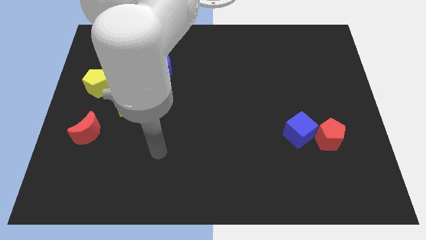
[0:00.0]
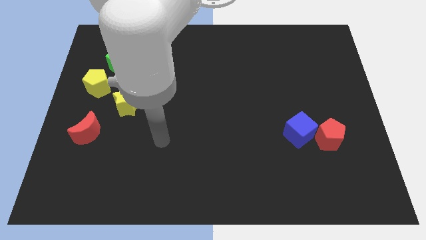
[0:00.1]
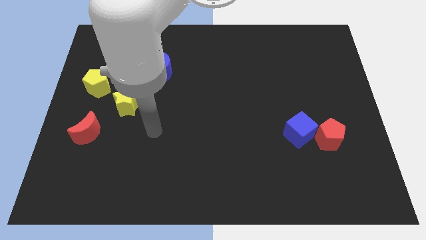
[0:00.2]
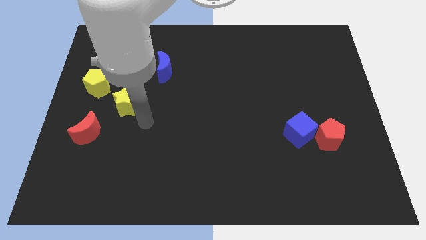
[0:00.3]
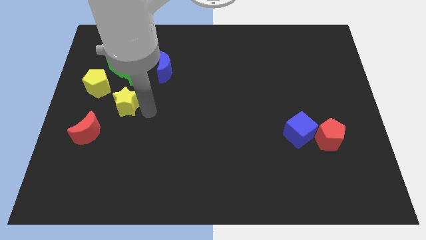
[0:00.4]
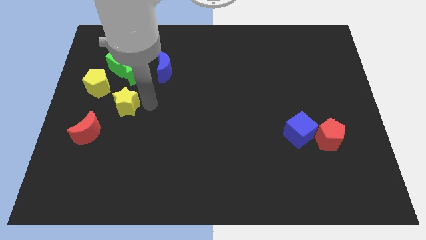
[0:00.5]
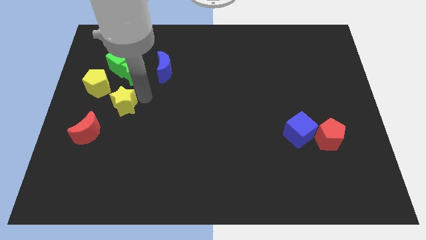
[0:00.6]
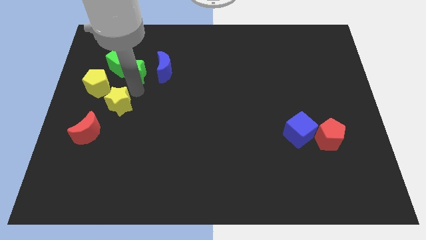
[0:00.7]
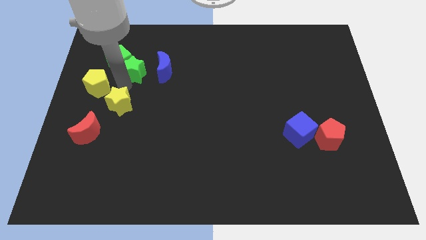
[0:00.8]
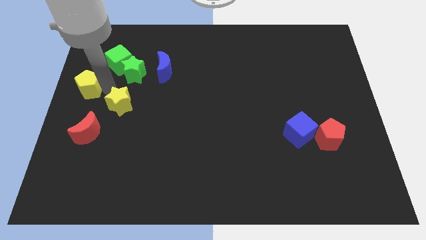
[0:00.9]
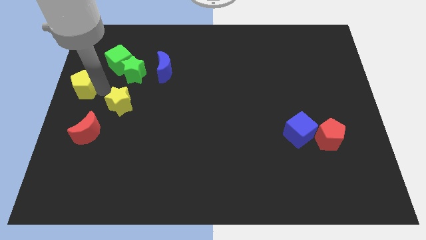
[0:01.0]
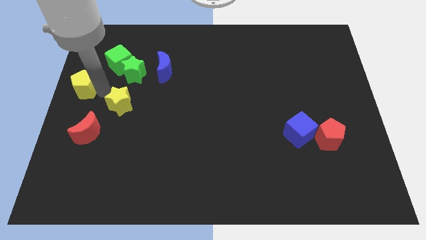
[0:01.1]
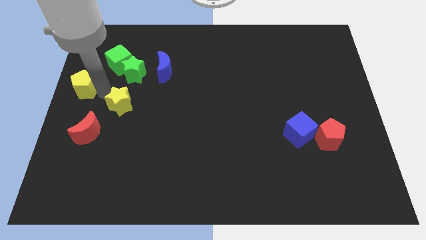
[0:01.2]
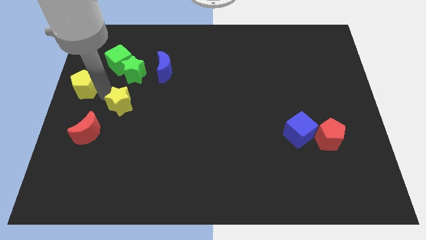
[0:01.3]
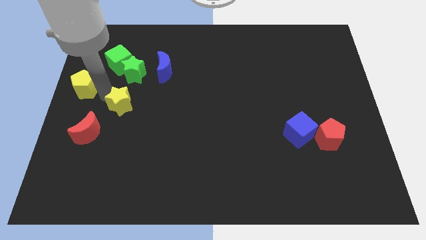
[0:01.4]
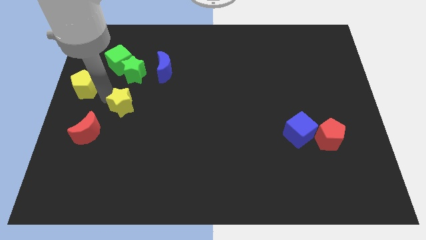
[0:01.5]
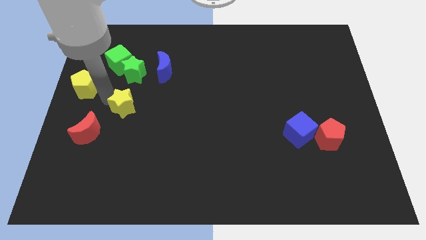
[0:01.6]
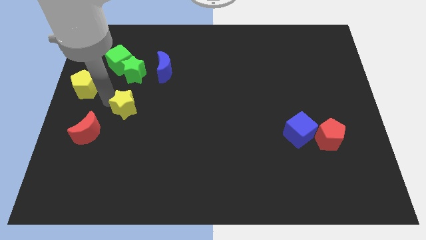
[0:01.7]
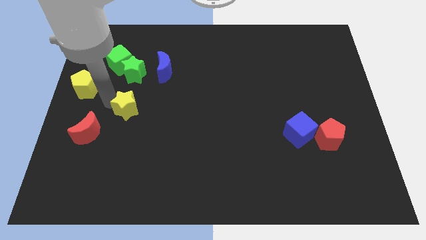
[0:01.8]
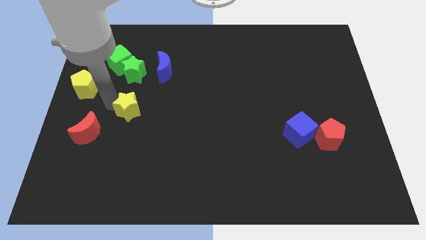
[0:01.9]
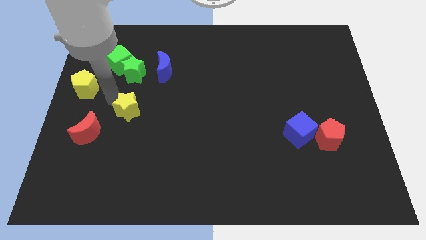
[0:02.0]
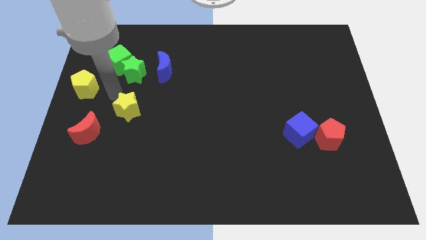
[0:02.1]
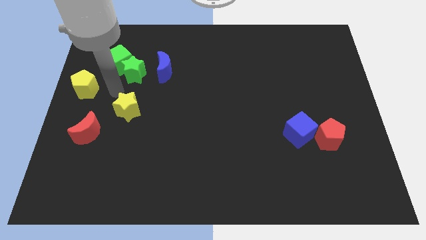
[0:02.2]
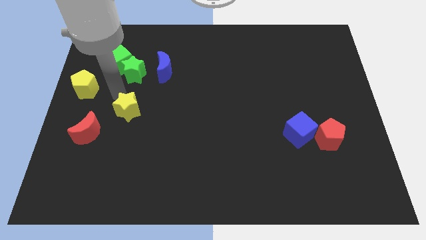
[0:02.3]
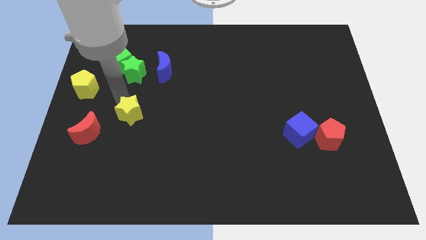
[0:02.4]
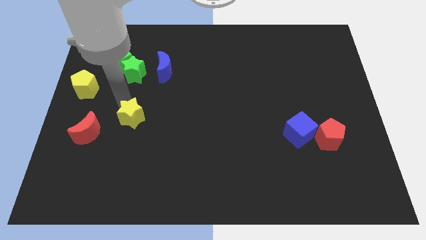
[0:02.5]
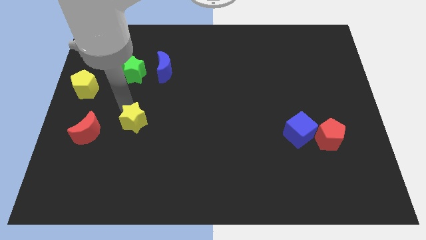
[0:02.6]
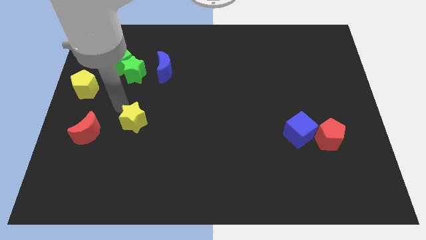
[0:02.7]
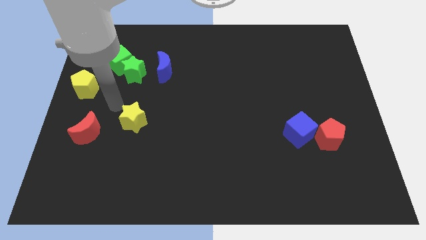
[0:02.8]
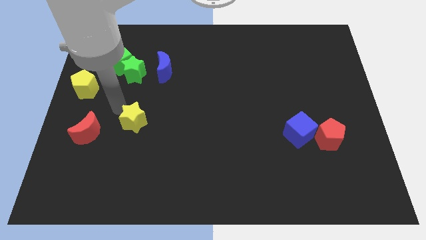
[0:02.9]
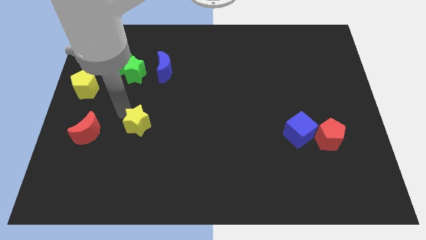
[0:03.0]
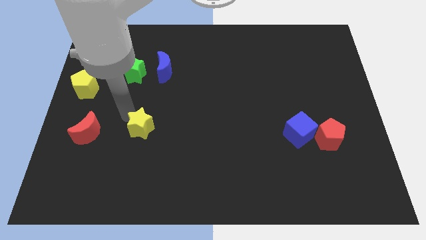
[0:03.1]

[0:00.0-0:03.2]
move the yellow star a little bit diagonally downwards and to the right

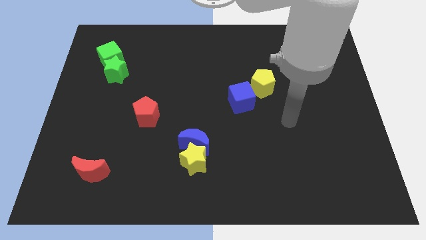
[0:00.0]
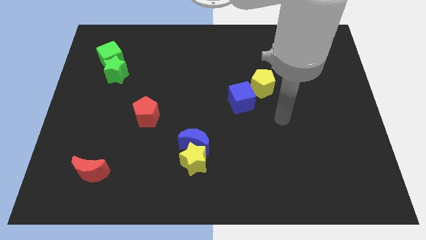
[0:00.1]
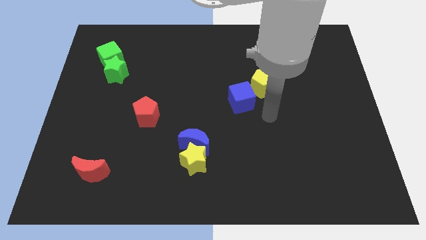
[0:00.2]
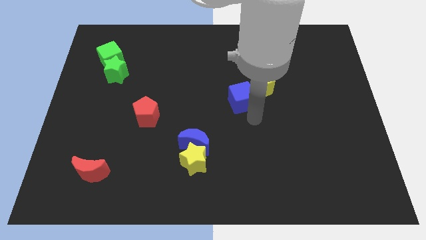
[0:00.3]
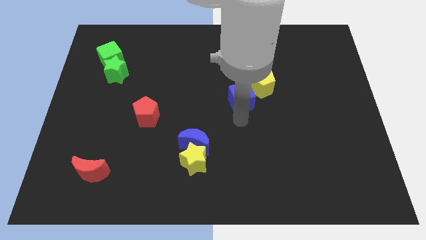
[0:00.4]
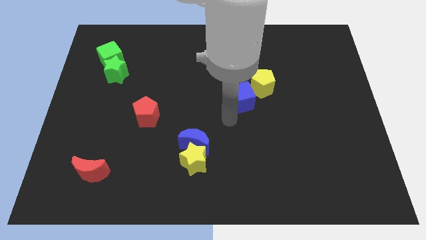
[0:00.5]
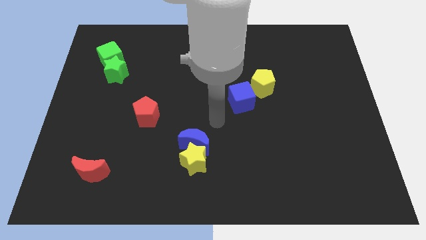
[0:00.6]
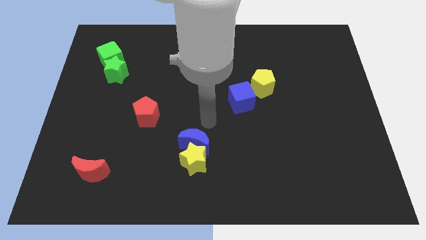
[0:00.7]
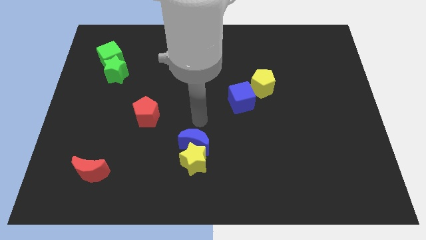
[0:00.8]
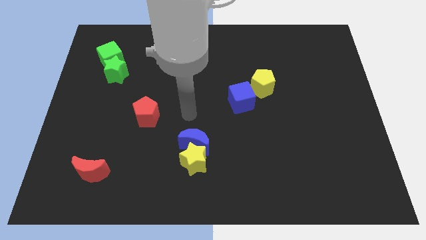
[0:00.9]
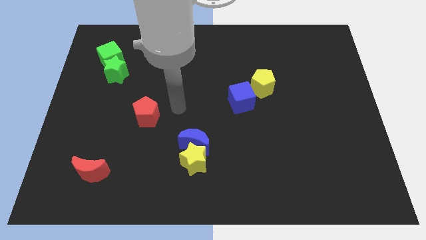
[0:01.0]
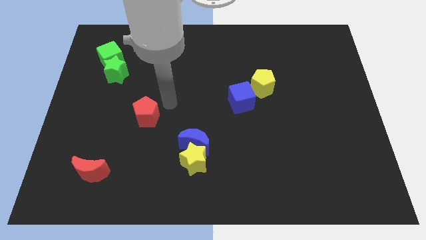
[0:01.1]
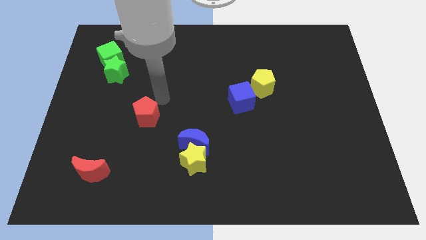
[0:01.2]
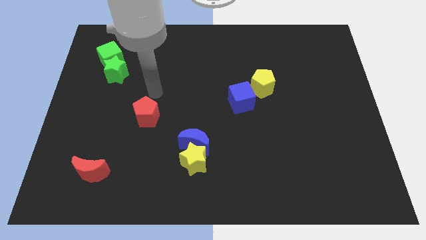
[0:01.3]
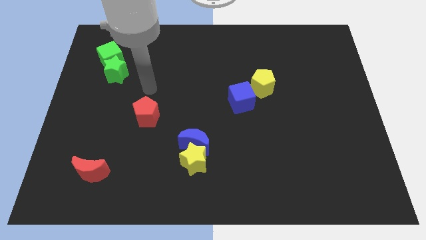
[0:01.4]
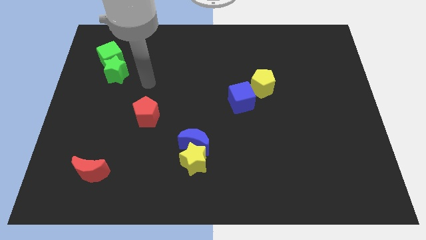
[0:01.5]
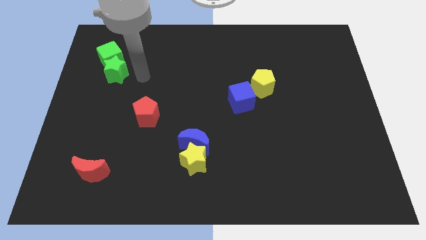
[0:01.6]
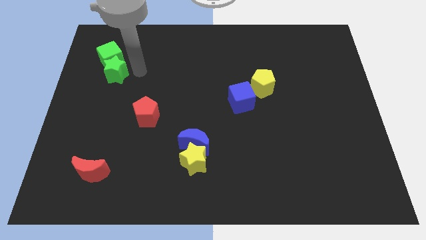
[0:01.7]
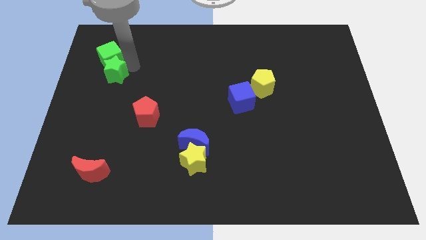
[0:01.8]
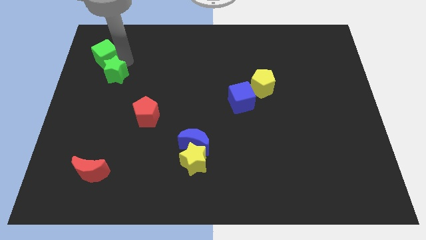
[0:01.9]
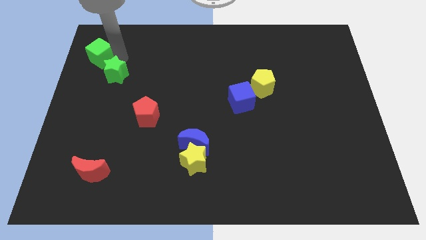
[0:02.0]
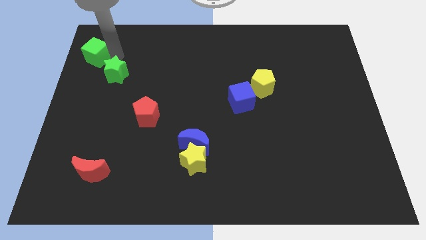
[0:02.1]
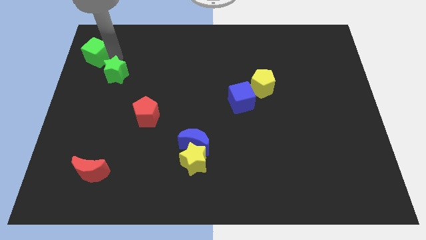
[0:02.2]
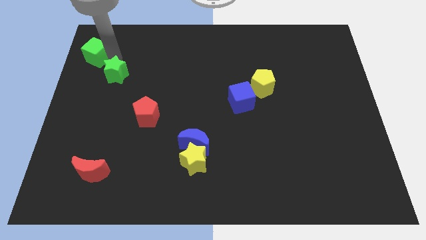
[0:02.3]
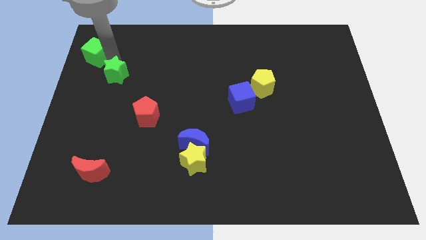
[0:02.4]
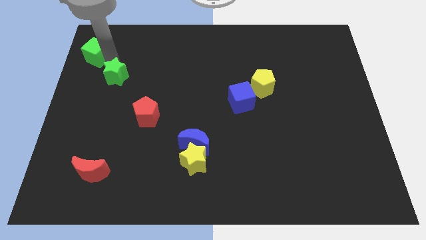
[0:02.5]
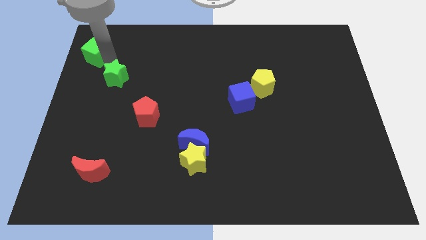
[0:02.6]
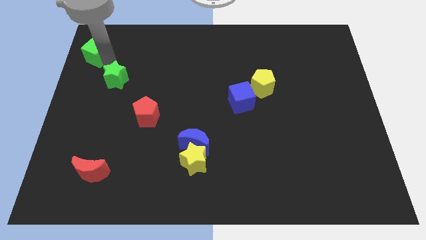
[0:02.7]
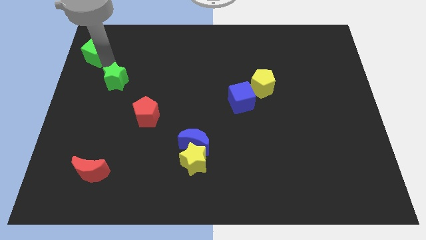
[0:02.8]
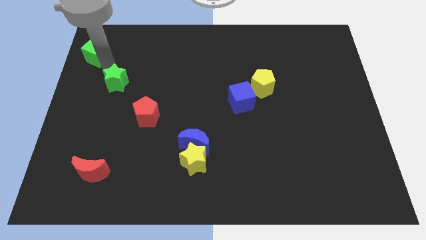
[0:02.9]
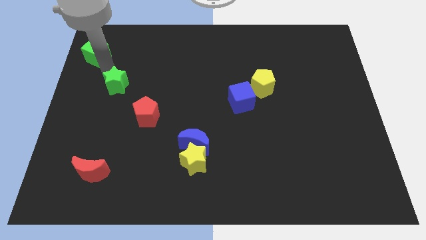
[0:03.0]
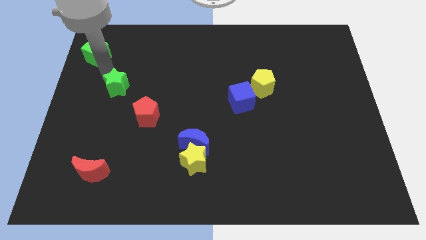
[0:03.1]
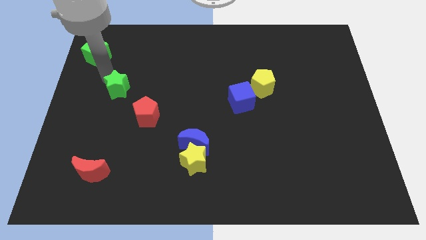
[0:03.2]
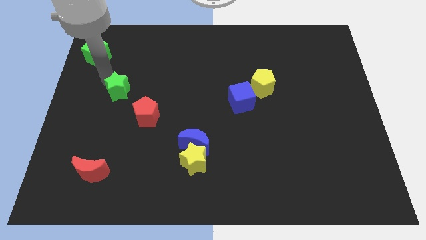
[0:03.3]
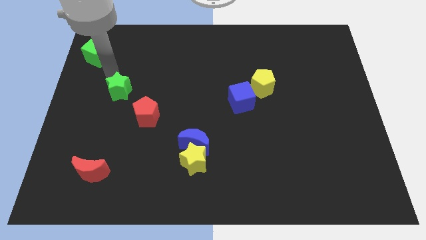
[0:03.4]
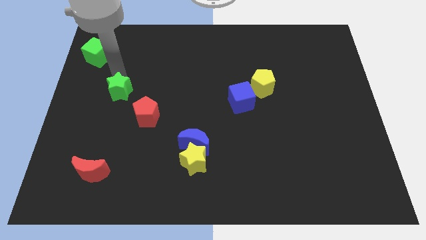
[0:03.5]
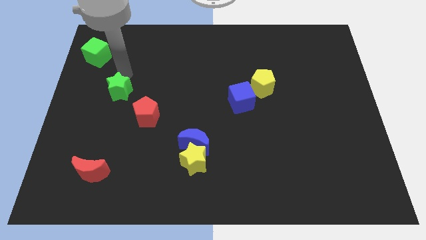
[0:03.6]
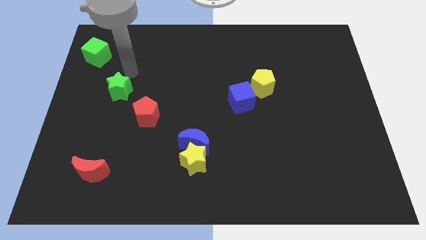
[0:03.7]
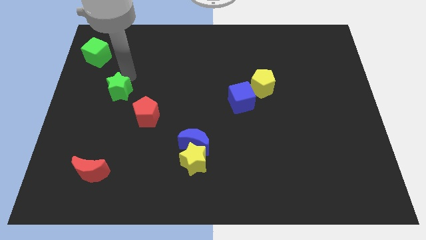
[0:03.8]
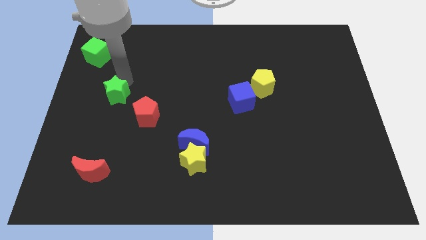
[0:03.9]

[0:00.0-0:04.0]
slightly push the green star down

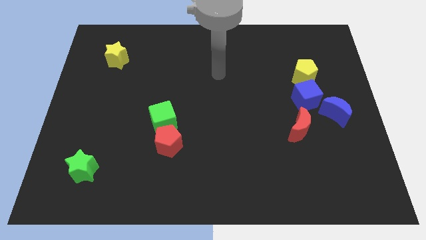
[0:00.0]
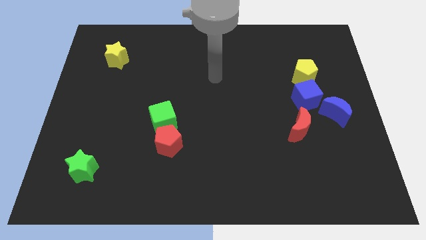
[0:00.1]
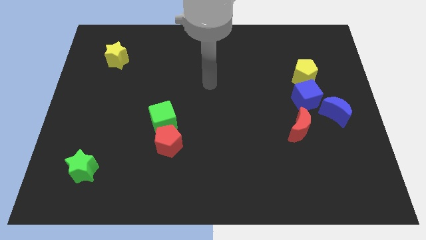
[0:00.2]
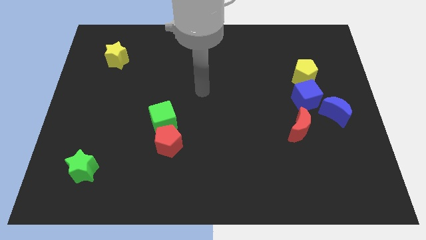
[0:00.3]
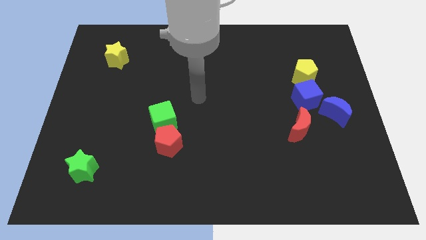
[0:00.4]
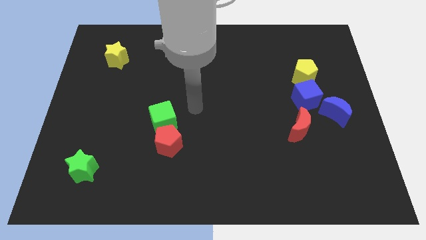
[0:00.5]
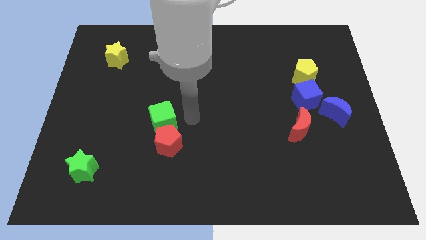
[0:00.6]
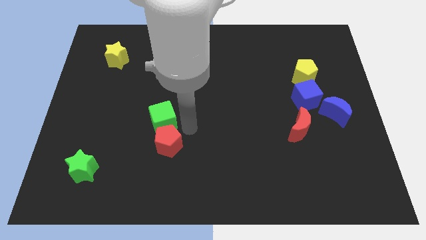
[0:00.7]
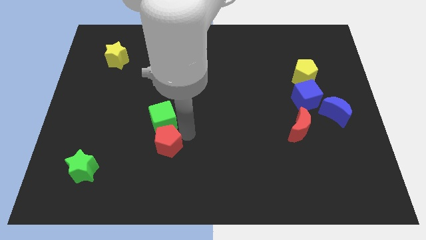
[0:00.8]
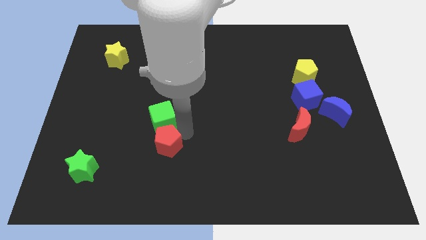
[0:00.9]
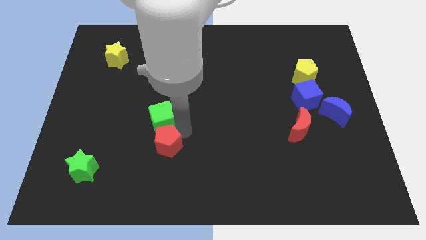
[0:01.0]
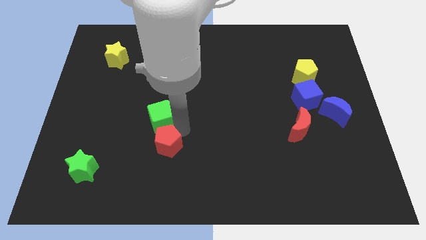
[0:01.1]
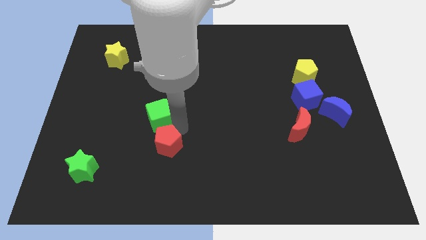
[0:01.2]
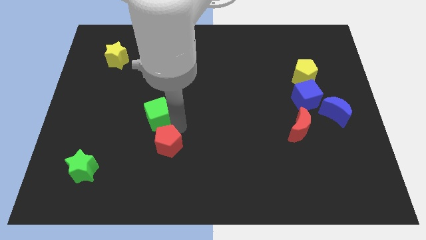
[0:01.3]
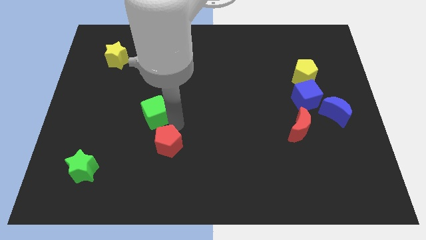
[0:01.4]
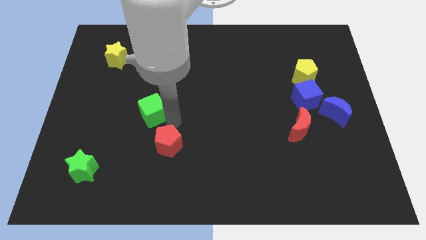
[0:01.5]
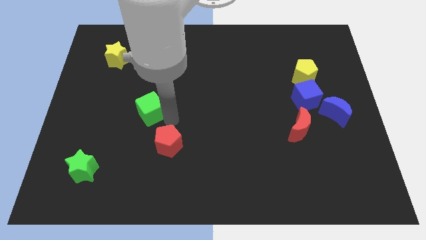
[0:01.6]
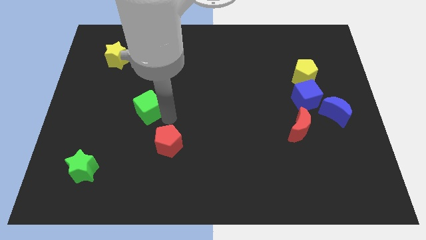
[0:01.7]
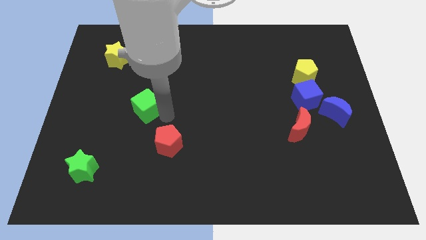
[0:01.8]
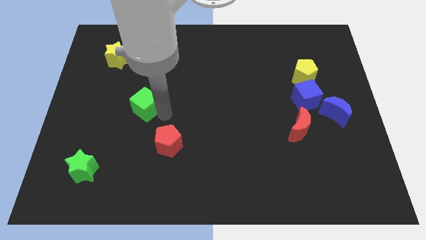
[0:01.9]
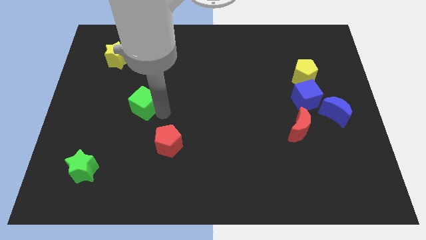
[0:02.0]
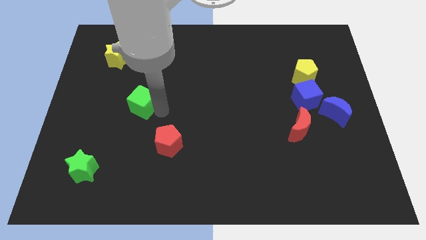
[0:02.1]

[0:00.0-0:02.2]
slide the green cube slightly up and left diagonally
